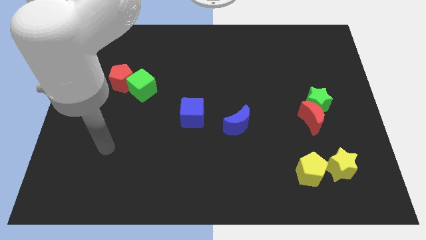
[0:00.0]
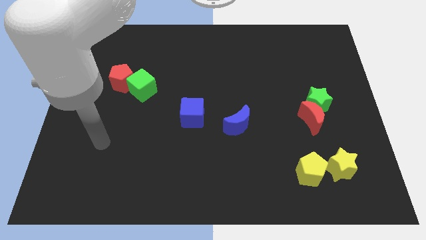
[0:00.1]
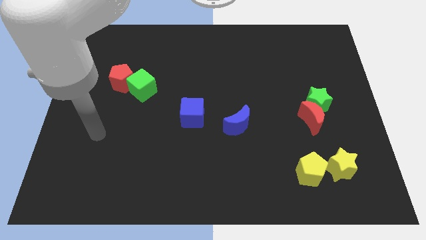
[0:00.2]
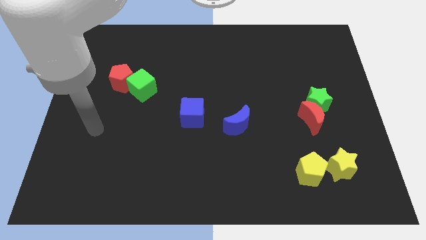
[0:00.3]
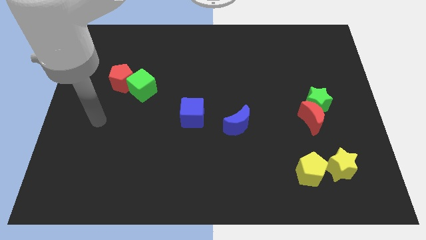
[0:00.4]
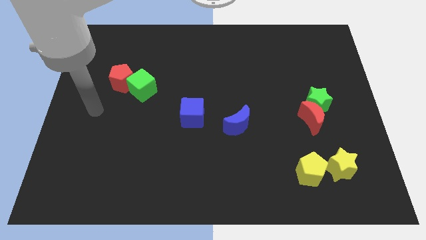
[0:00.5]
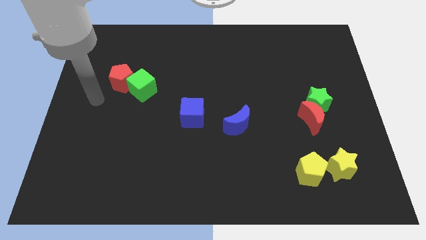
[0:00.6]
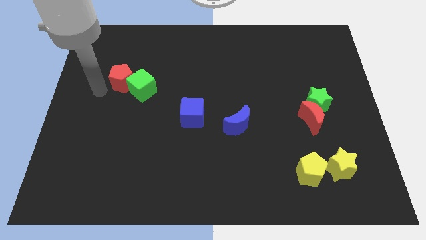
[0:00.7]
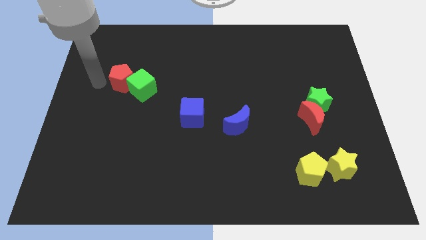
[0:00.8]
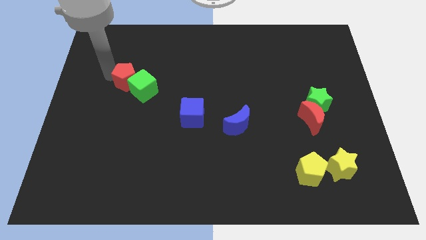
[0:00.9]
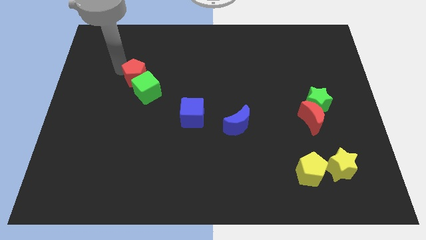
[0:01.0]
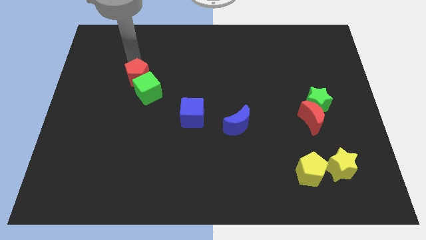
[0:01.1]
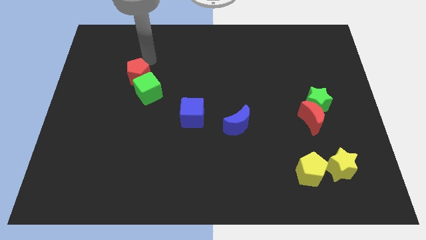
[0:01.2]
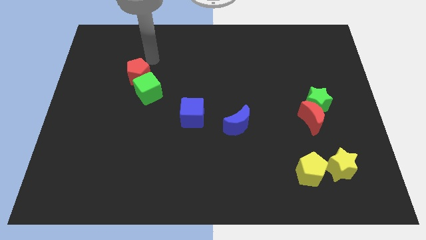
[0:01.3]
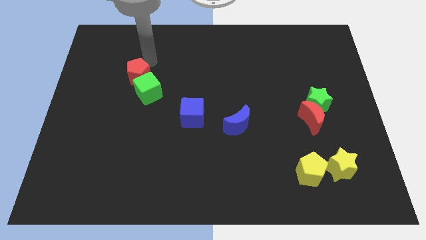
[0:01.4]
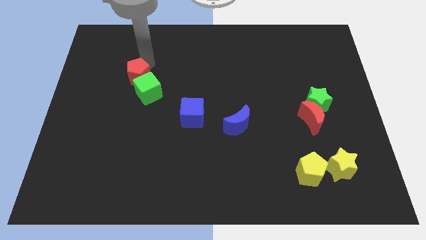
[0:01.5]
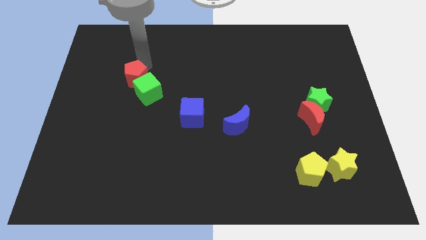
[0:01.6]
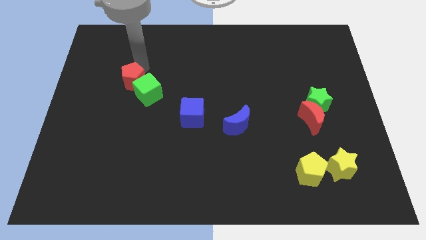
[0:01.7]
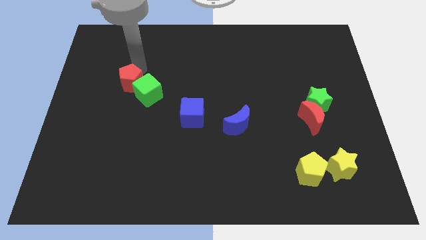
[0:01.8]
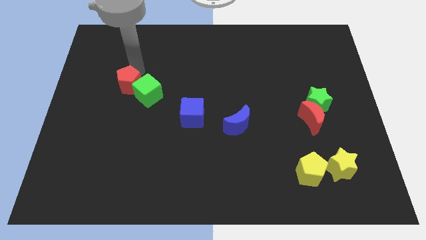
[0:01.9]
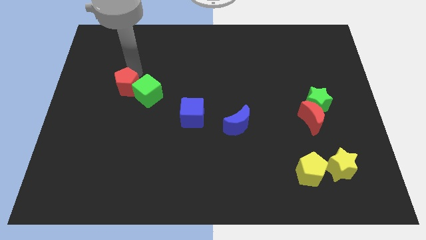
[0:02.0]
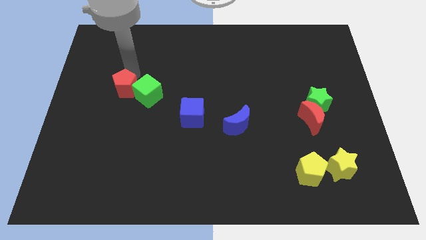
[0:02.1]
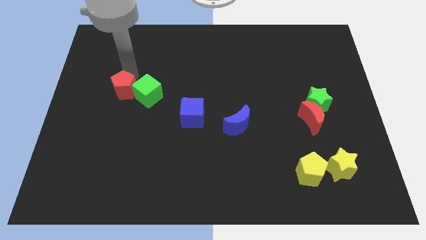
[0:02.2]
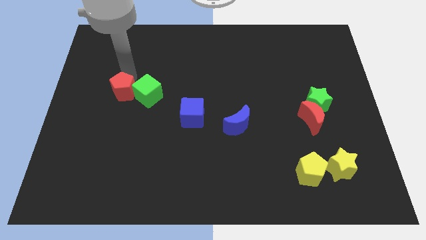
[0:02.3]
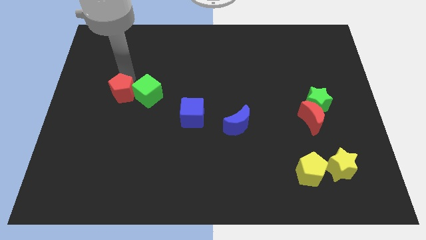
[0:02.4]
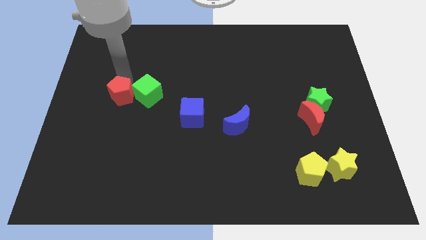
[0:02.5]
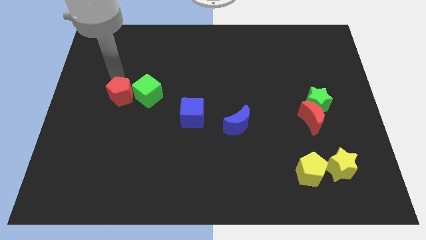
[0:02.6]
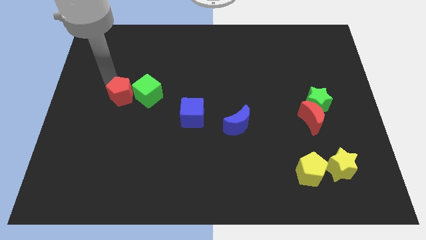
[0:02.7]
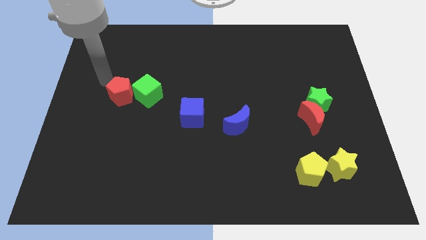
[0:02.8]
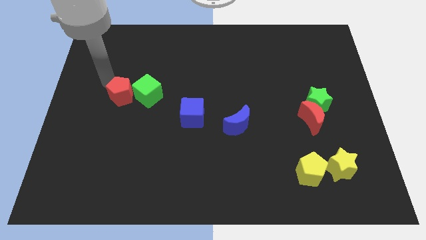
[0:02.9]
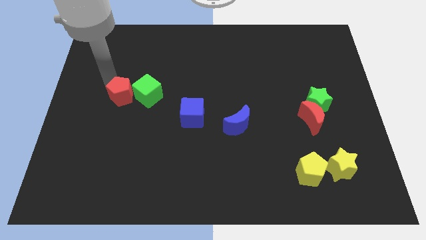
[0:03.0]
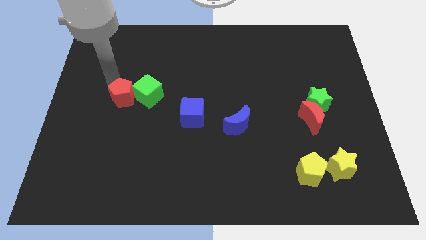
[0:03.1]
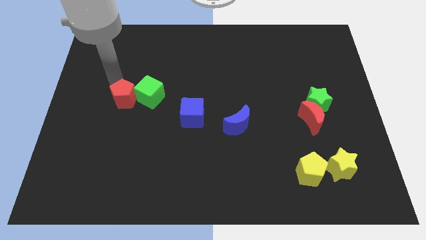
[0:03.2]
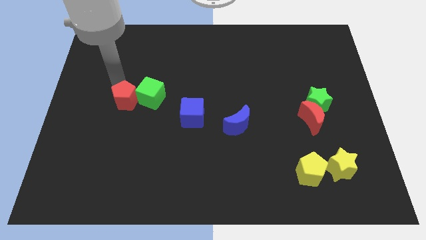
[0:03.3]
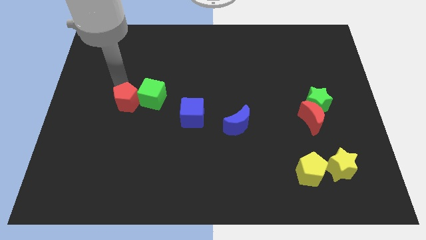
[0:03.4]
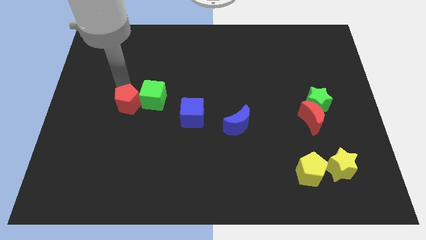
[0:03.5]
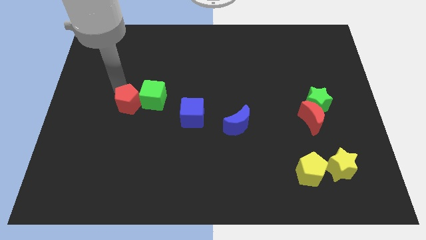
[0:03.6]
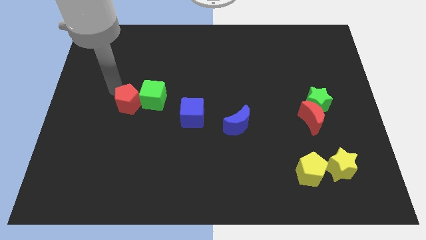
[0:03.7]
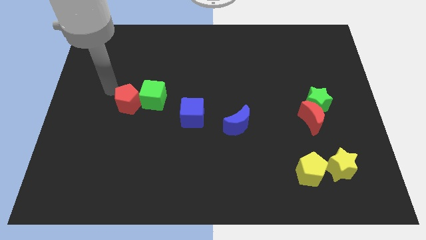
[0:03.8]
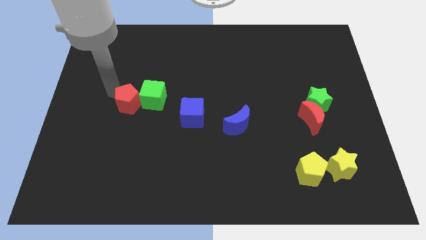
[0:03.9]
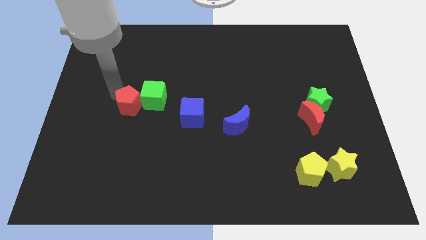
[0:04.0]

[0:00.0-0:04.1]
slide the red pentagon a bit down and to the right diagonally

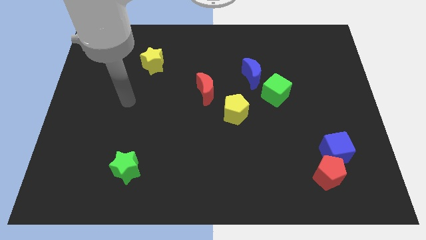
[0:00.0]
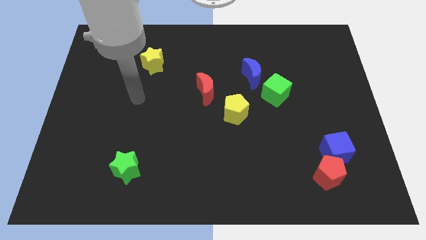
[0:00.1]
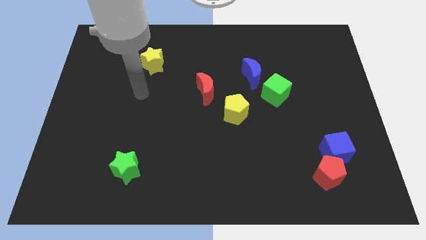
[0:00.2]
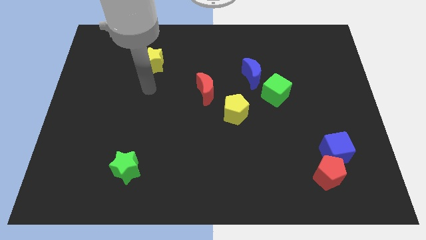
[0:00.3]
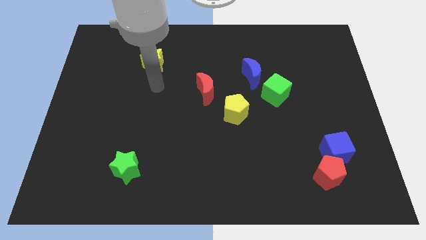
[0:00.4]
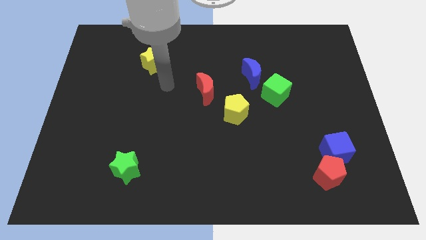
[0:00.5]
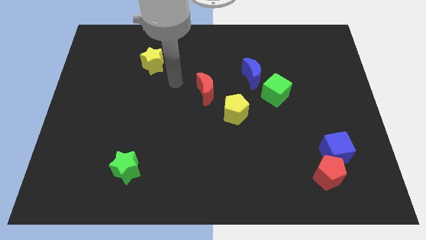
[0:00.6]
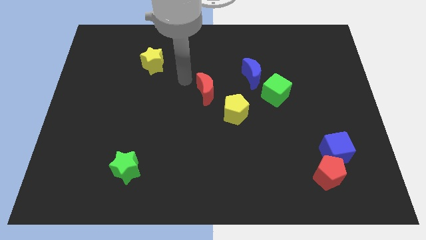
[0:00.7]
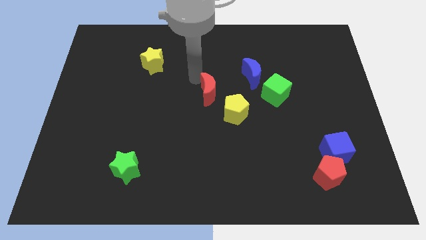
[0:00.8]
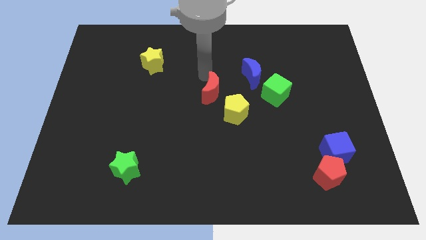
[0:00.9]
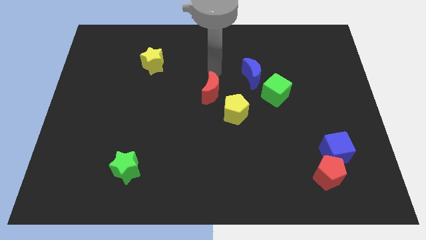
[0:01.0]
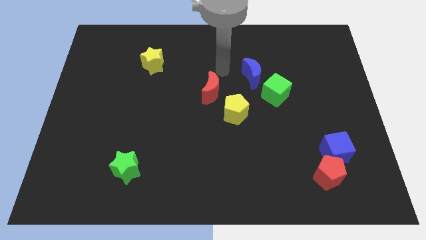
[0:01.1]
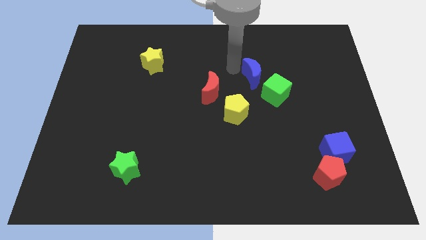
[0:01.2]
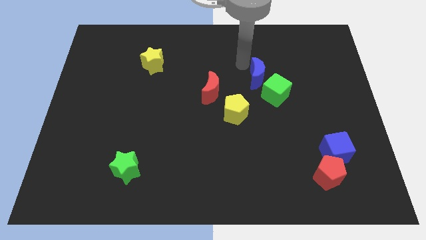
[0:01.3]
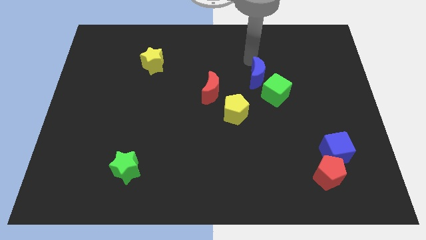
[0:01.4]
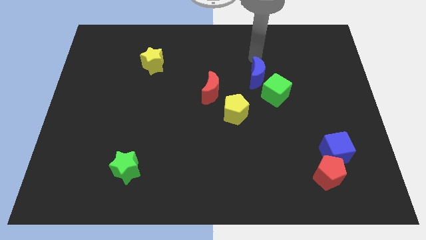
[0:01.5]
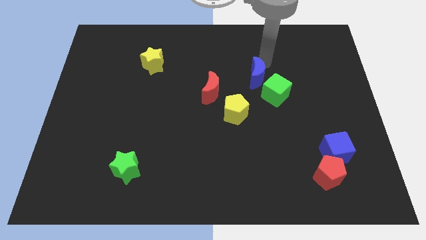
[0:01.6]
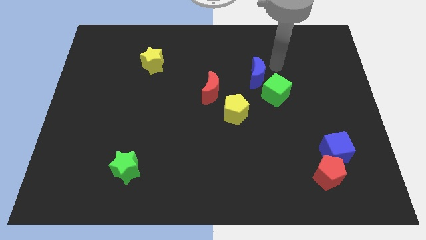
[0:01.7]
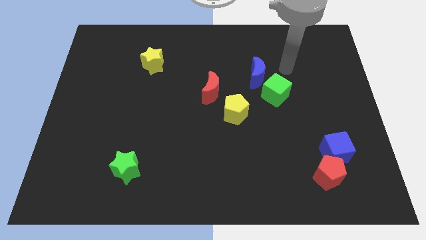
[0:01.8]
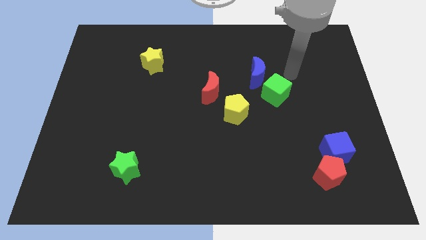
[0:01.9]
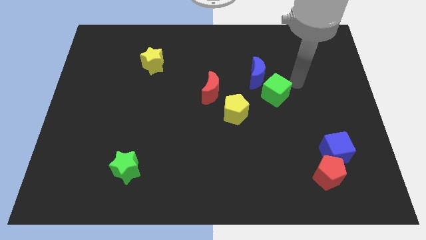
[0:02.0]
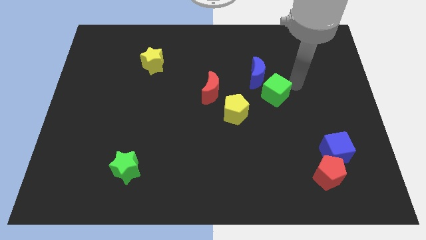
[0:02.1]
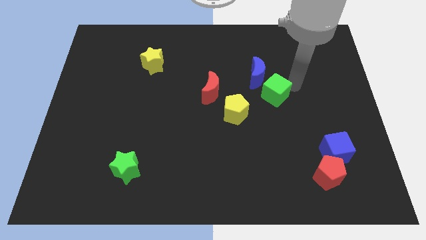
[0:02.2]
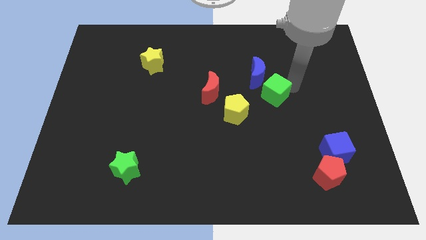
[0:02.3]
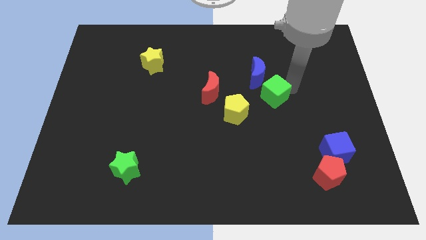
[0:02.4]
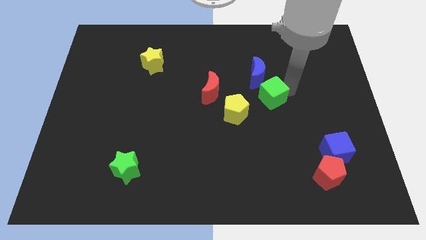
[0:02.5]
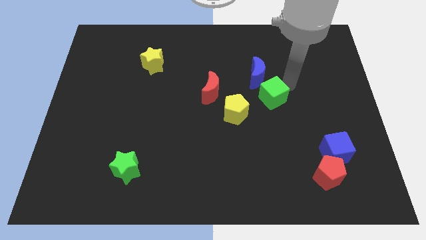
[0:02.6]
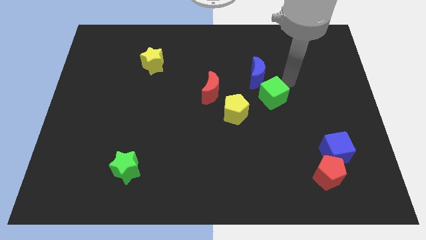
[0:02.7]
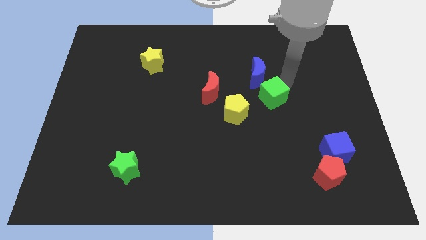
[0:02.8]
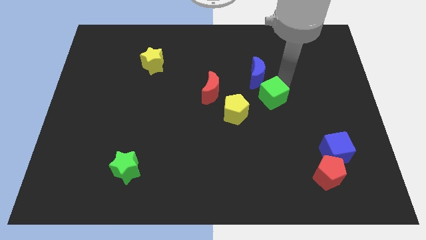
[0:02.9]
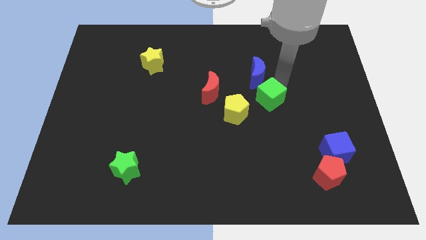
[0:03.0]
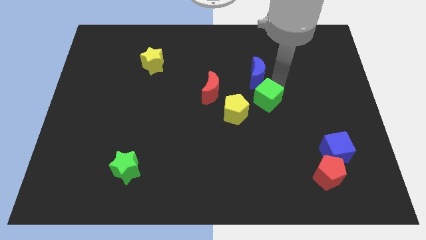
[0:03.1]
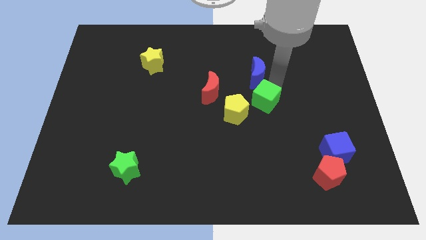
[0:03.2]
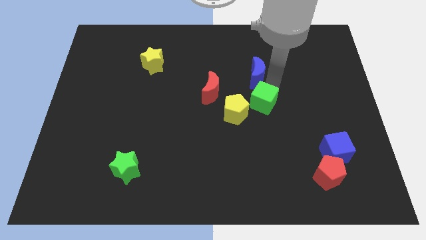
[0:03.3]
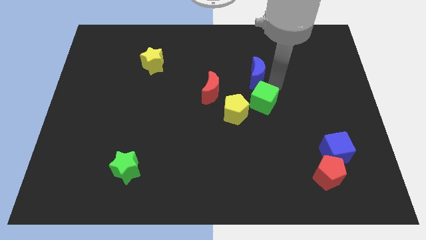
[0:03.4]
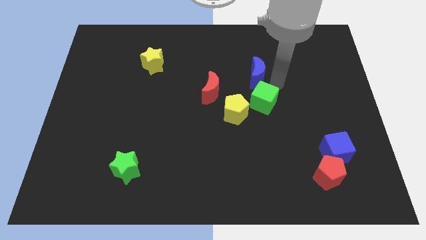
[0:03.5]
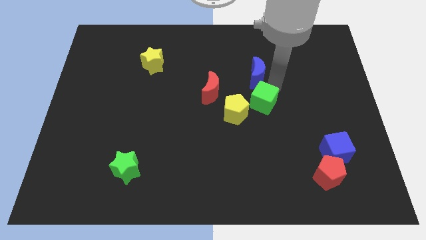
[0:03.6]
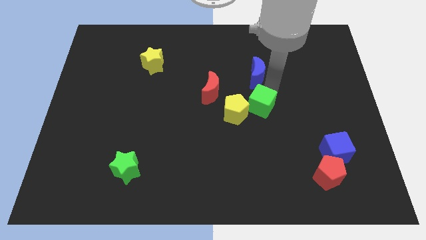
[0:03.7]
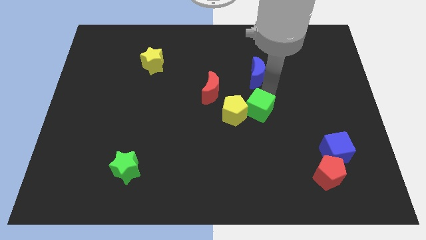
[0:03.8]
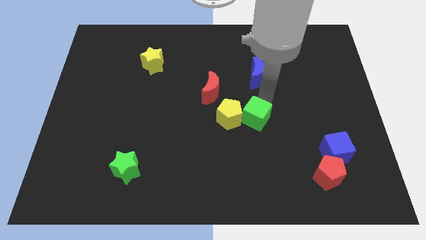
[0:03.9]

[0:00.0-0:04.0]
move the green cube somewhat diagonally down and left
